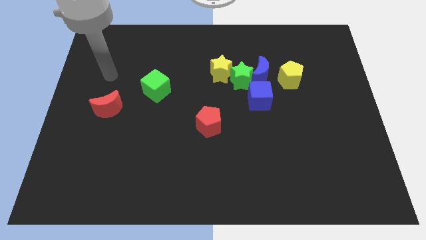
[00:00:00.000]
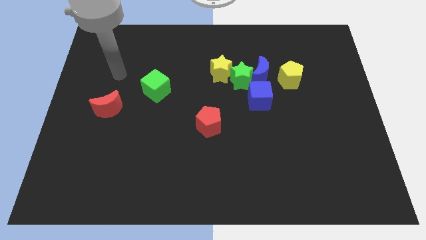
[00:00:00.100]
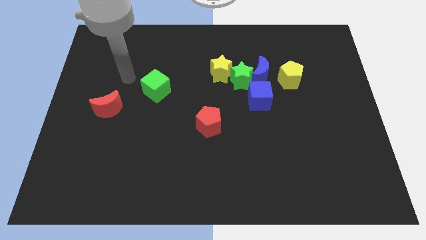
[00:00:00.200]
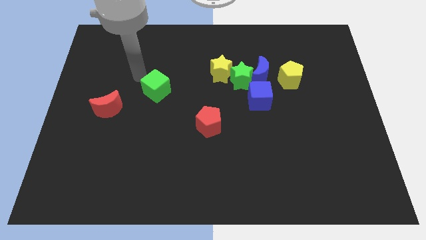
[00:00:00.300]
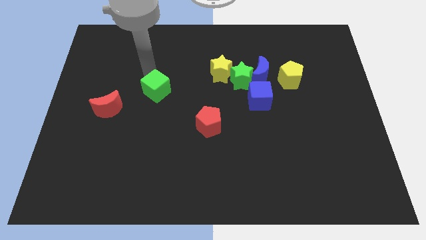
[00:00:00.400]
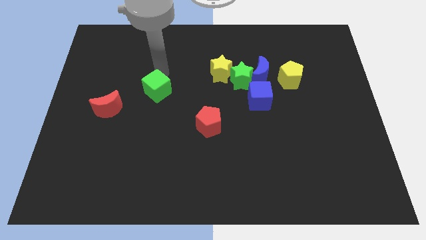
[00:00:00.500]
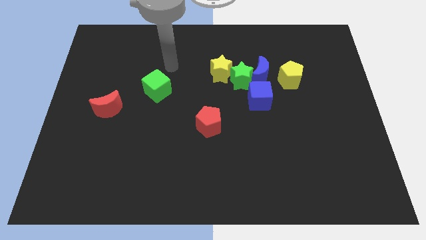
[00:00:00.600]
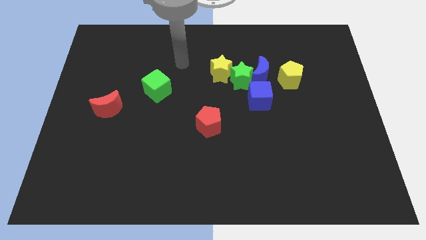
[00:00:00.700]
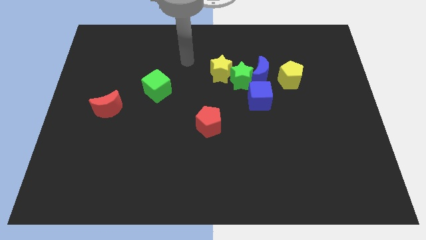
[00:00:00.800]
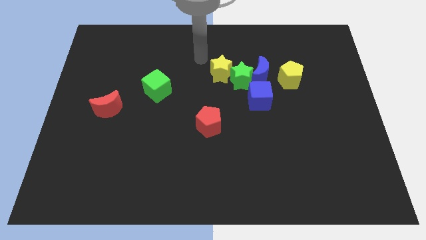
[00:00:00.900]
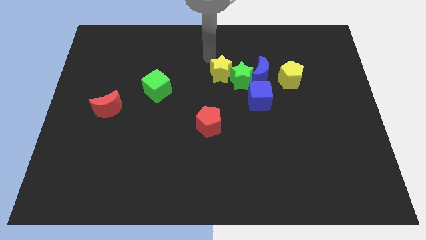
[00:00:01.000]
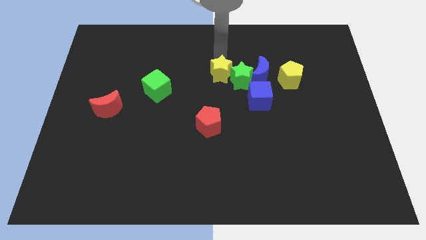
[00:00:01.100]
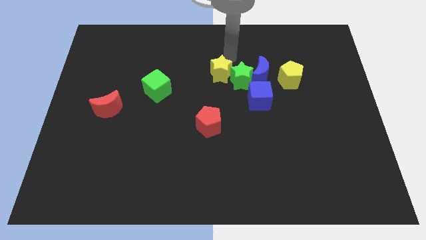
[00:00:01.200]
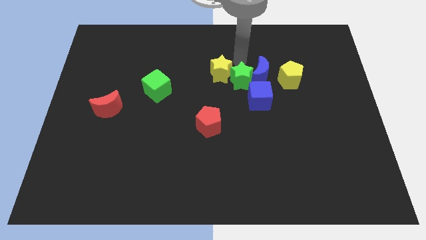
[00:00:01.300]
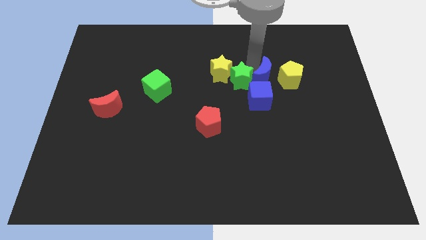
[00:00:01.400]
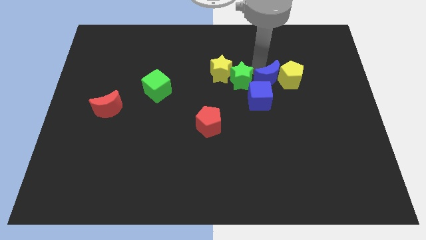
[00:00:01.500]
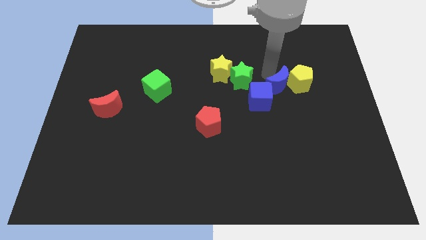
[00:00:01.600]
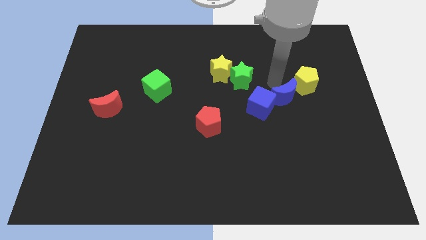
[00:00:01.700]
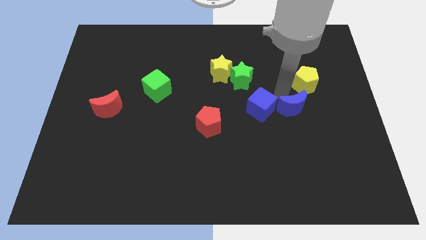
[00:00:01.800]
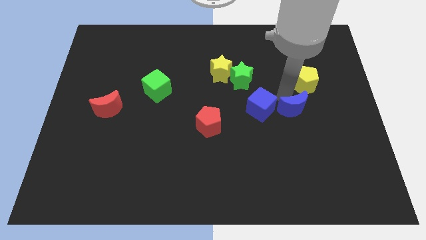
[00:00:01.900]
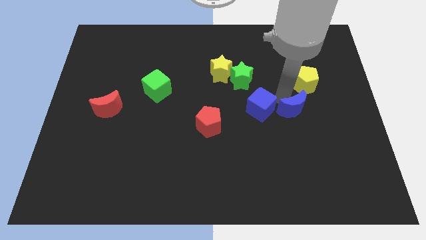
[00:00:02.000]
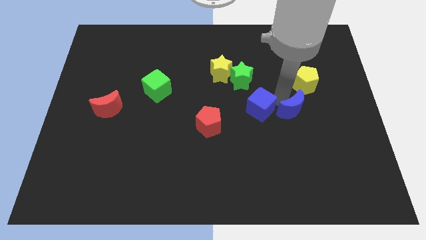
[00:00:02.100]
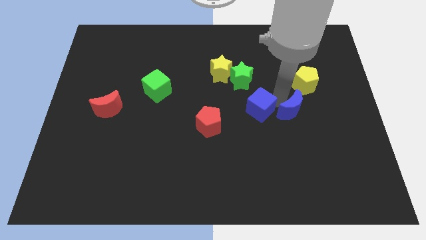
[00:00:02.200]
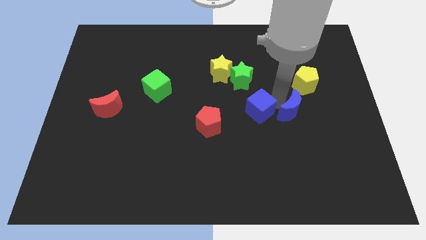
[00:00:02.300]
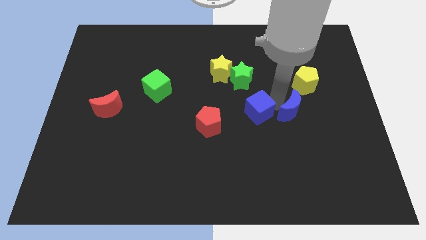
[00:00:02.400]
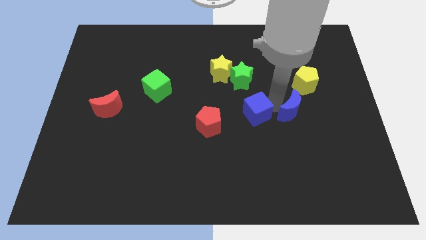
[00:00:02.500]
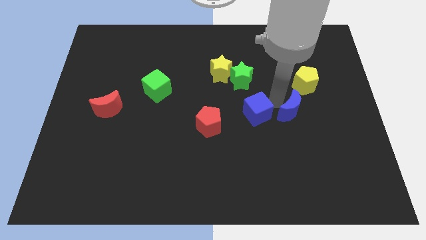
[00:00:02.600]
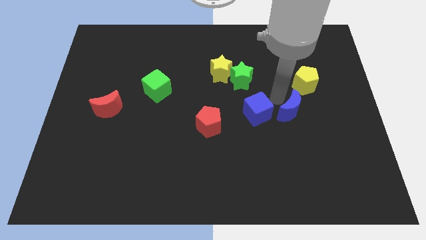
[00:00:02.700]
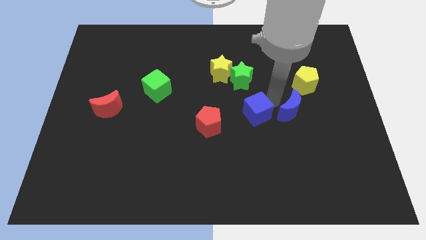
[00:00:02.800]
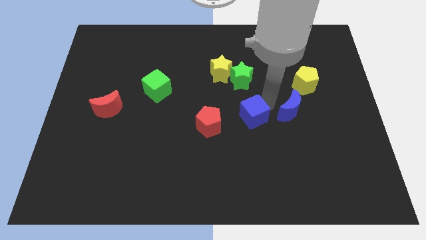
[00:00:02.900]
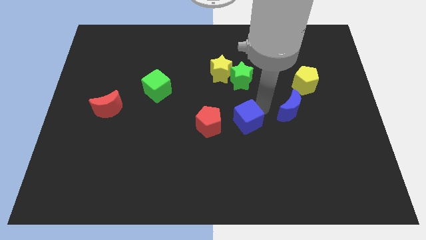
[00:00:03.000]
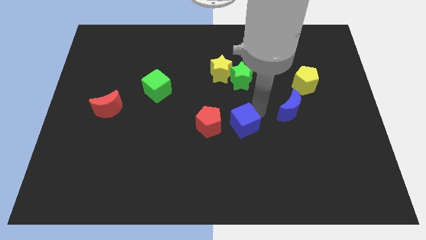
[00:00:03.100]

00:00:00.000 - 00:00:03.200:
push the blue cube downwards and left a bit

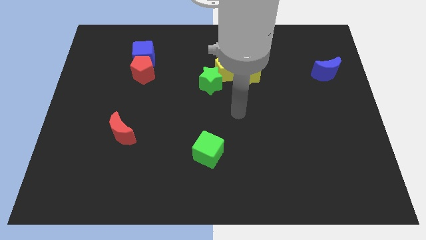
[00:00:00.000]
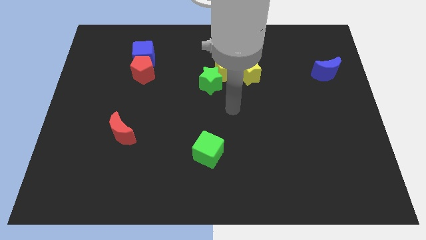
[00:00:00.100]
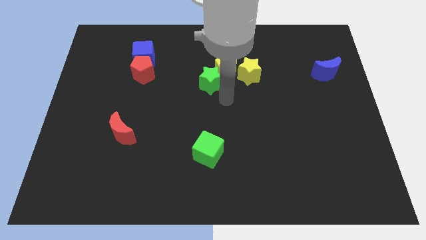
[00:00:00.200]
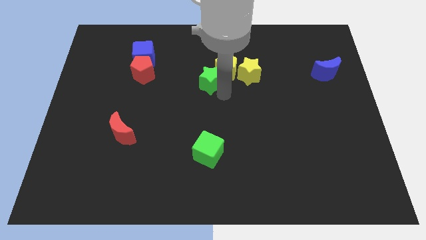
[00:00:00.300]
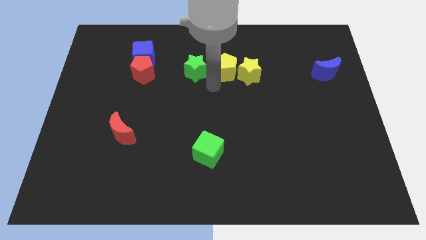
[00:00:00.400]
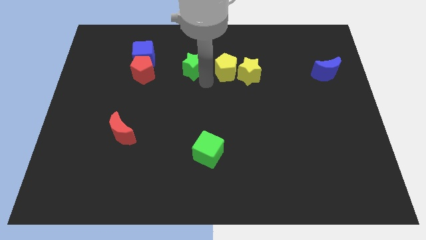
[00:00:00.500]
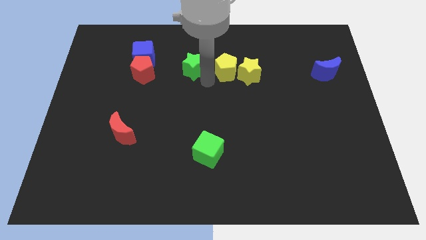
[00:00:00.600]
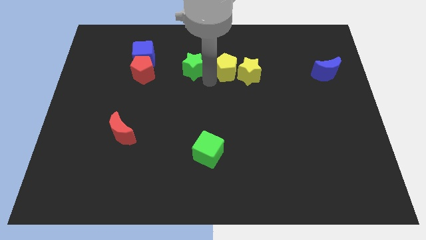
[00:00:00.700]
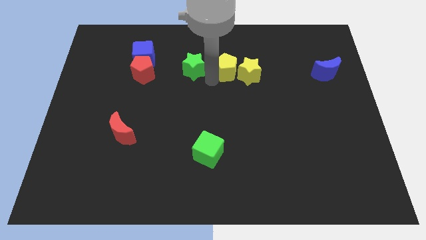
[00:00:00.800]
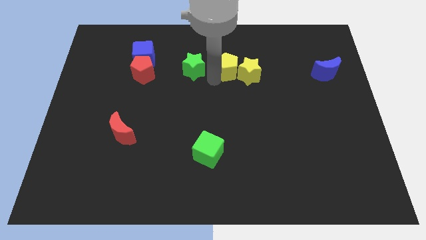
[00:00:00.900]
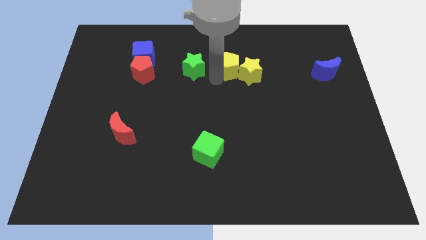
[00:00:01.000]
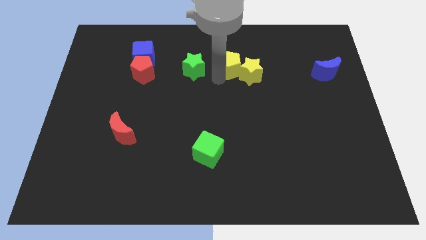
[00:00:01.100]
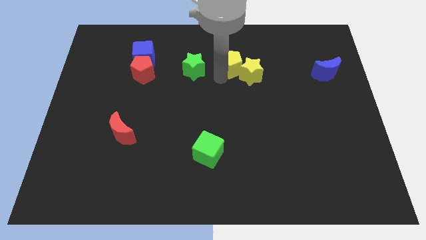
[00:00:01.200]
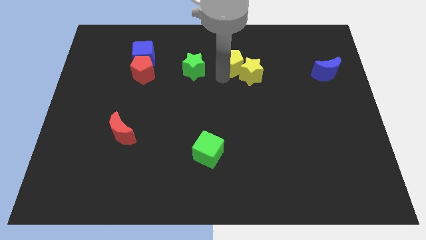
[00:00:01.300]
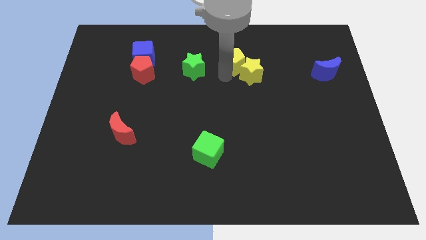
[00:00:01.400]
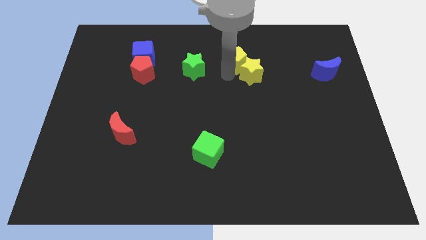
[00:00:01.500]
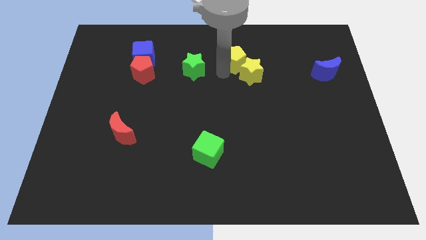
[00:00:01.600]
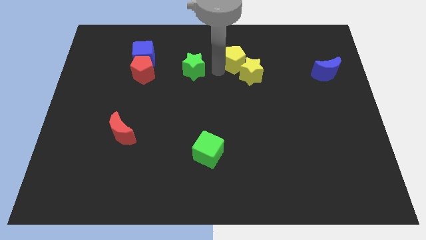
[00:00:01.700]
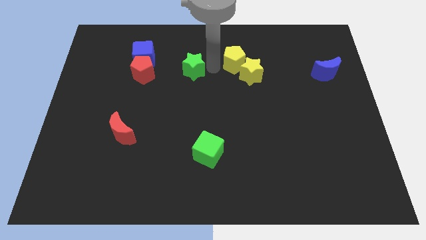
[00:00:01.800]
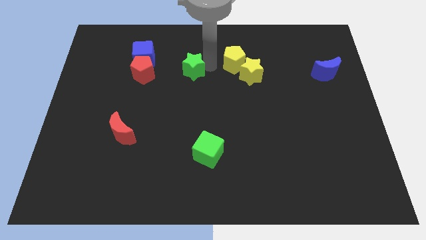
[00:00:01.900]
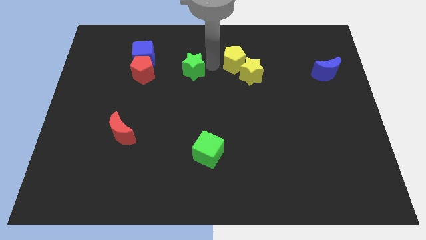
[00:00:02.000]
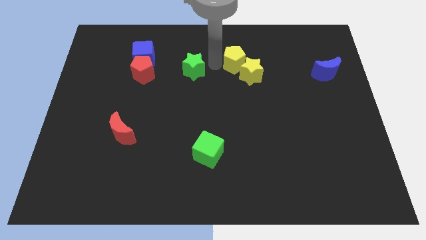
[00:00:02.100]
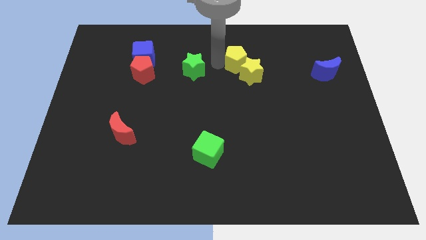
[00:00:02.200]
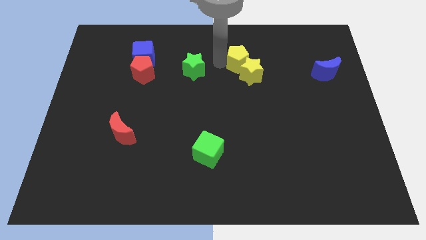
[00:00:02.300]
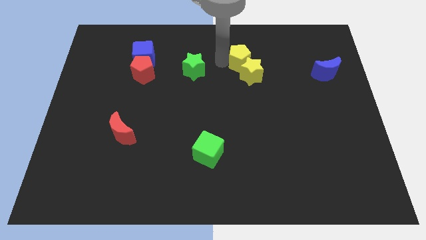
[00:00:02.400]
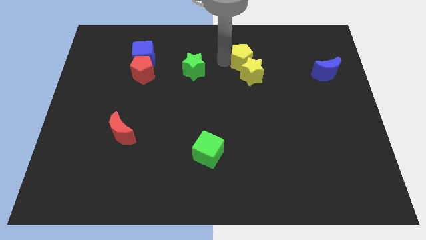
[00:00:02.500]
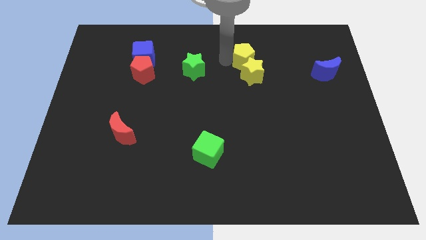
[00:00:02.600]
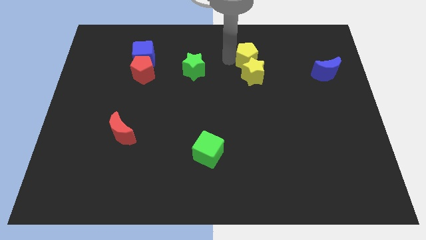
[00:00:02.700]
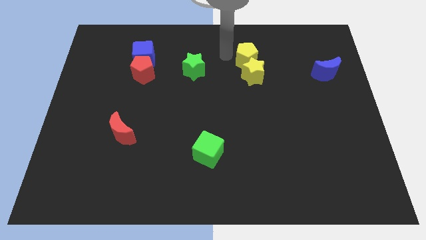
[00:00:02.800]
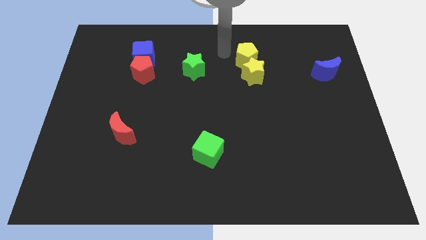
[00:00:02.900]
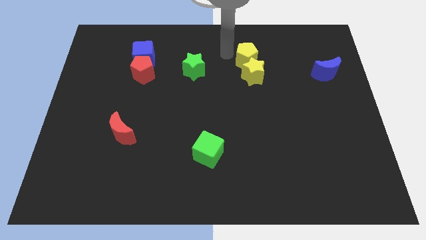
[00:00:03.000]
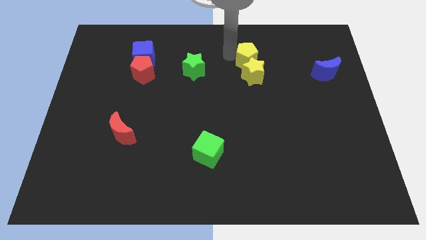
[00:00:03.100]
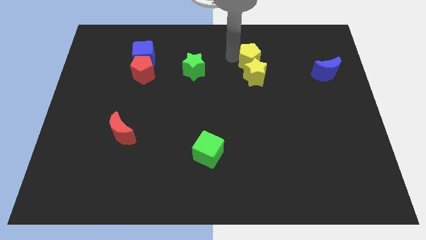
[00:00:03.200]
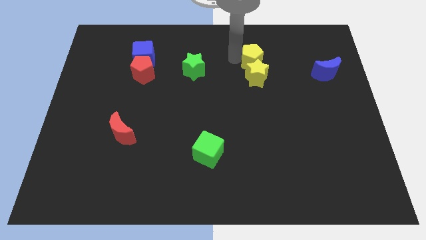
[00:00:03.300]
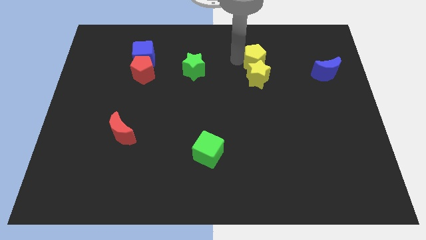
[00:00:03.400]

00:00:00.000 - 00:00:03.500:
slightly move the yellow pentagon to the right

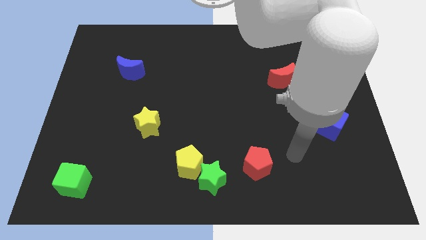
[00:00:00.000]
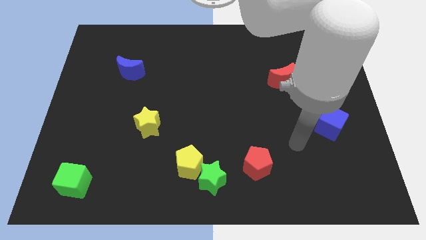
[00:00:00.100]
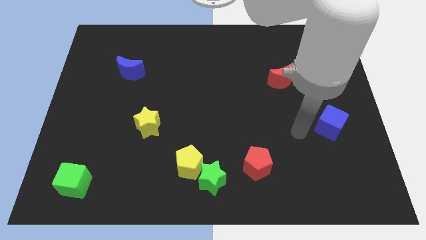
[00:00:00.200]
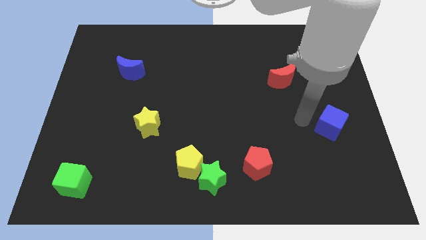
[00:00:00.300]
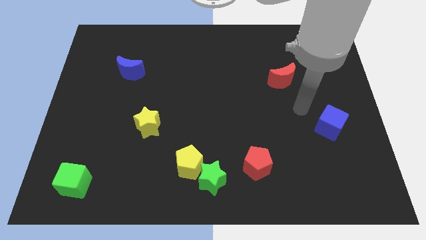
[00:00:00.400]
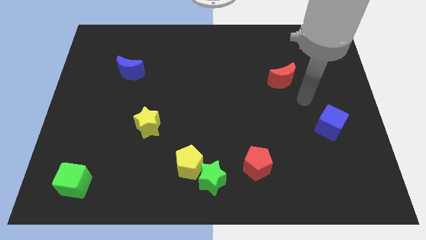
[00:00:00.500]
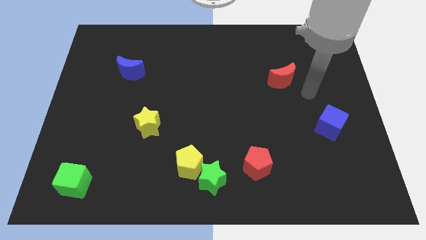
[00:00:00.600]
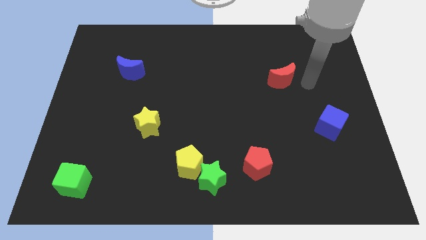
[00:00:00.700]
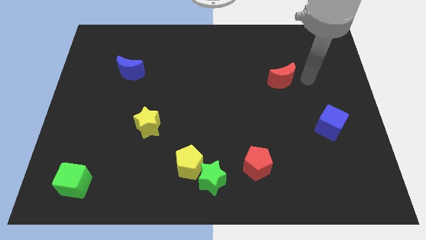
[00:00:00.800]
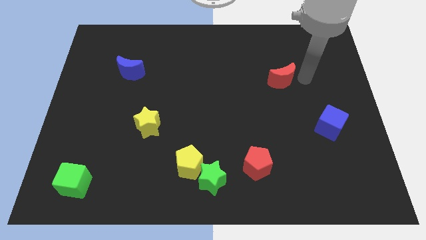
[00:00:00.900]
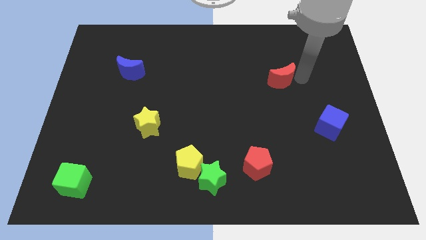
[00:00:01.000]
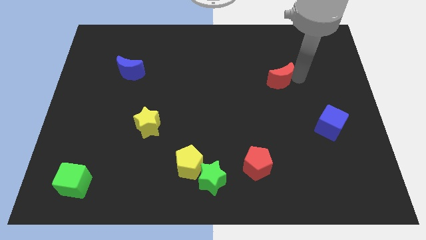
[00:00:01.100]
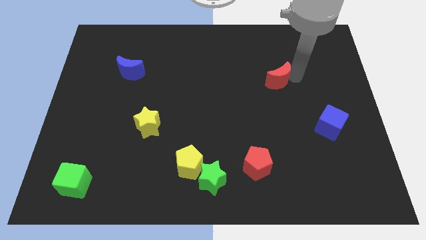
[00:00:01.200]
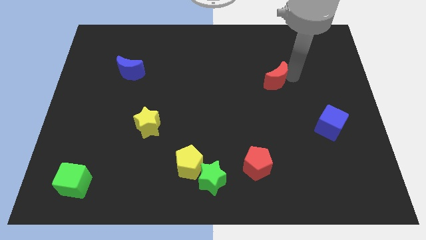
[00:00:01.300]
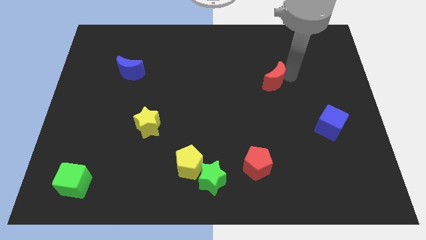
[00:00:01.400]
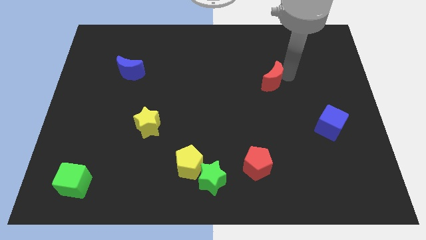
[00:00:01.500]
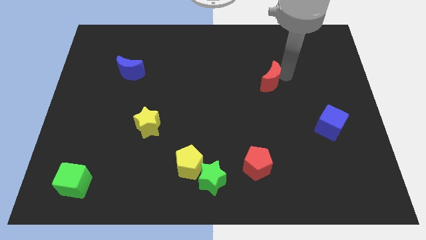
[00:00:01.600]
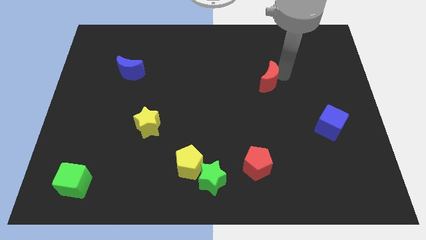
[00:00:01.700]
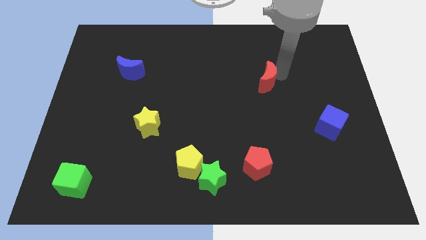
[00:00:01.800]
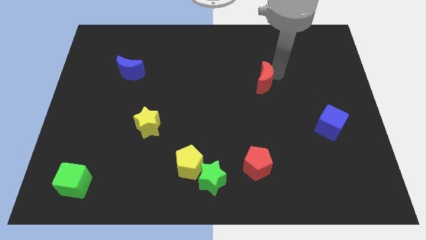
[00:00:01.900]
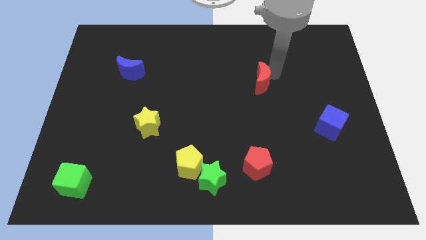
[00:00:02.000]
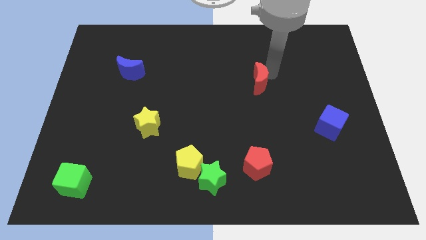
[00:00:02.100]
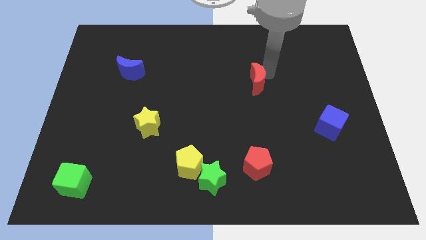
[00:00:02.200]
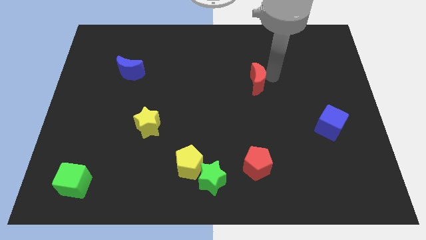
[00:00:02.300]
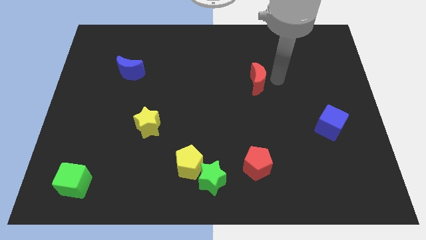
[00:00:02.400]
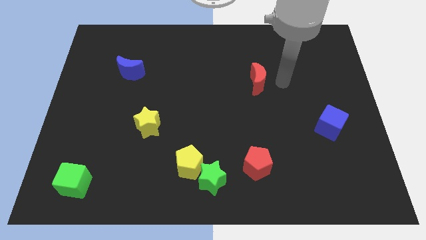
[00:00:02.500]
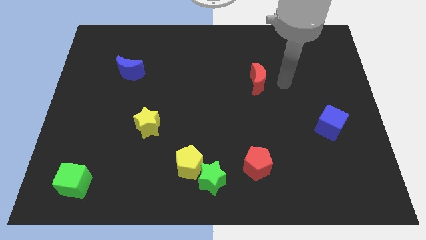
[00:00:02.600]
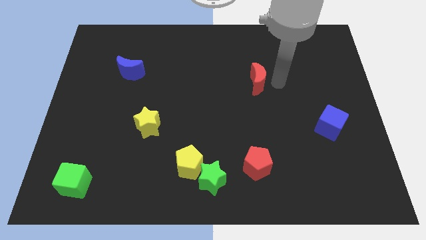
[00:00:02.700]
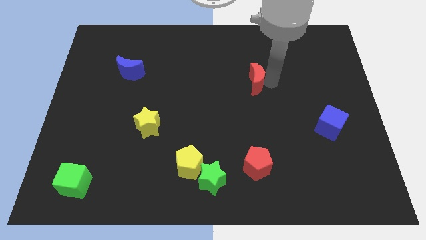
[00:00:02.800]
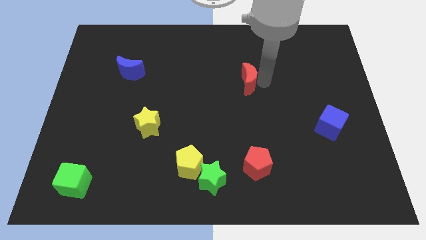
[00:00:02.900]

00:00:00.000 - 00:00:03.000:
slide the red moon slightly to the left
